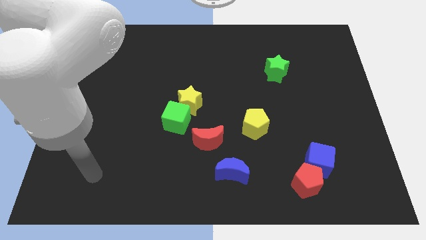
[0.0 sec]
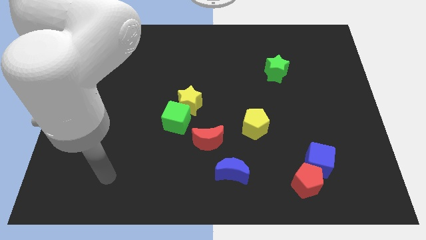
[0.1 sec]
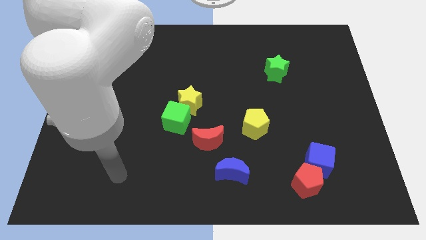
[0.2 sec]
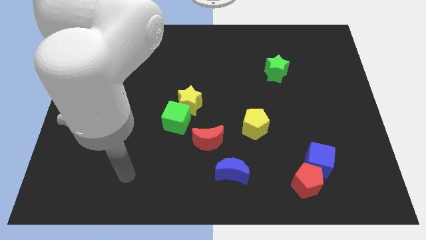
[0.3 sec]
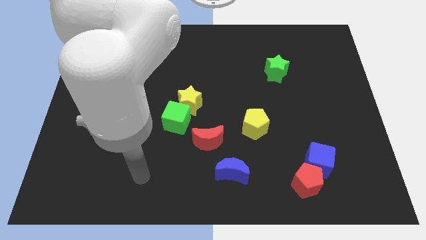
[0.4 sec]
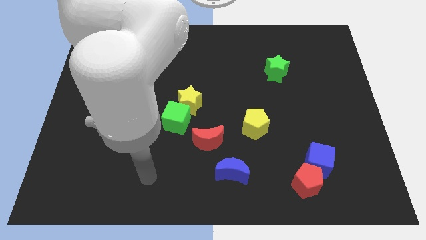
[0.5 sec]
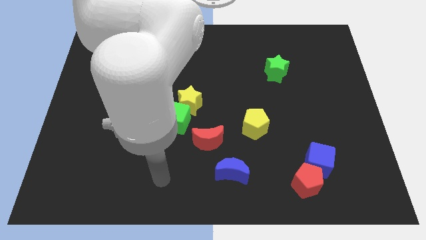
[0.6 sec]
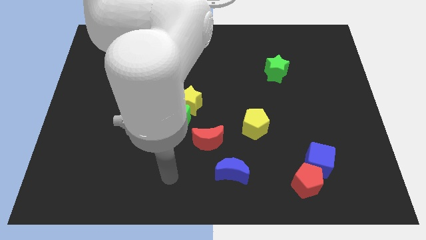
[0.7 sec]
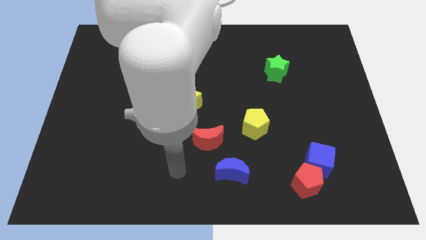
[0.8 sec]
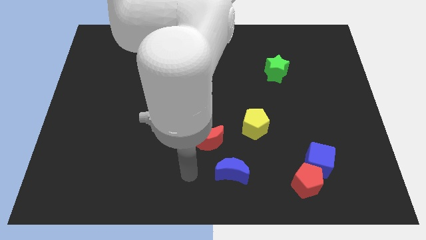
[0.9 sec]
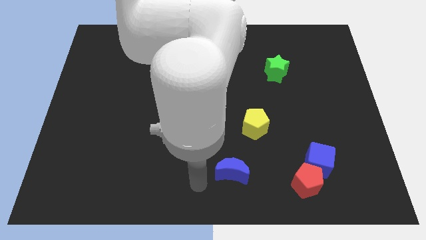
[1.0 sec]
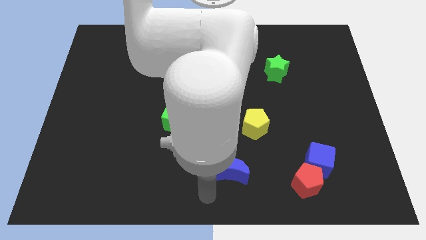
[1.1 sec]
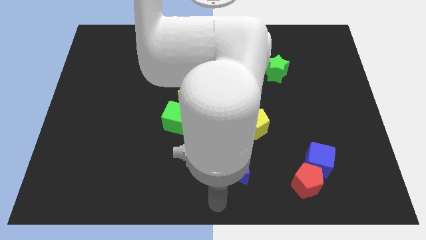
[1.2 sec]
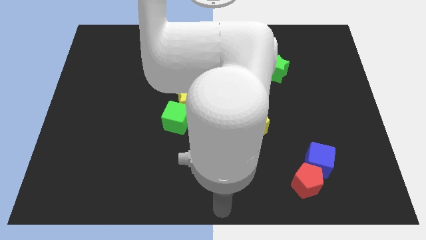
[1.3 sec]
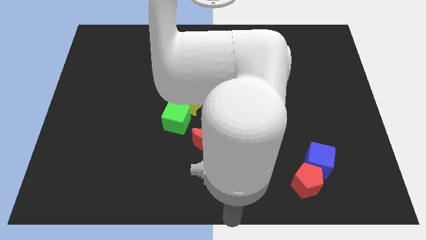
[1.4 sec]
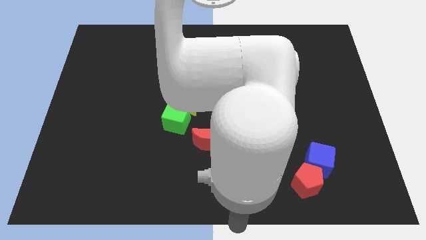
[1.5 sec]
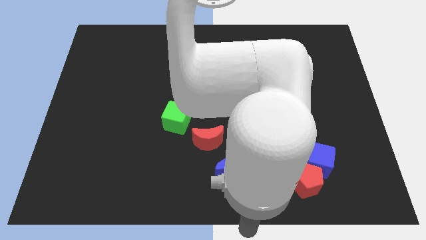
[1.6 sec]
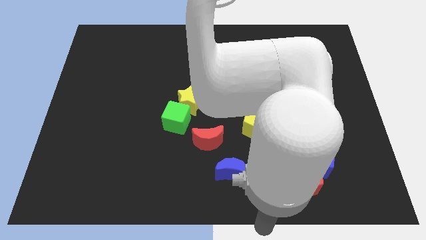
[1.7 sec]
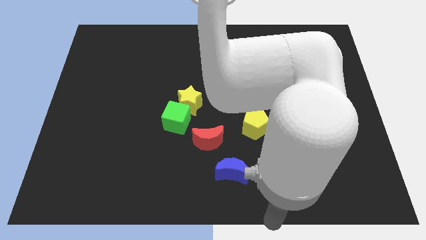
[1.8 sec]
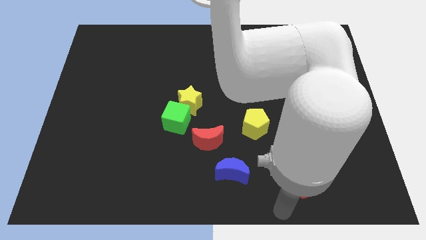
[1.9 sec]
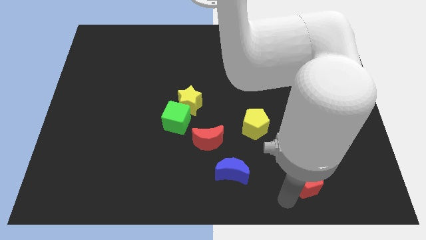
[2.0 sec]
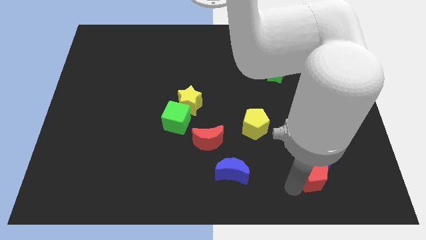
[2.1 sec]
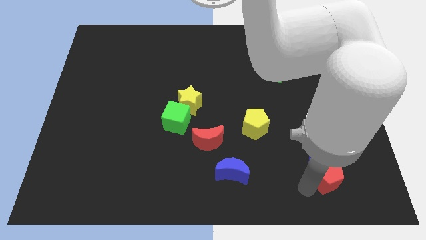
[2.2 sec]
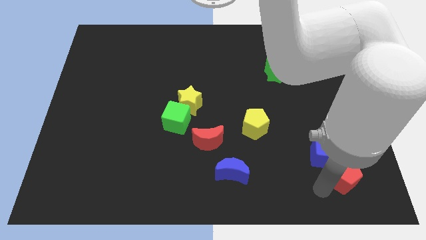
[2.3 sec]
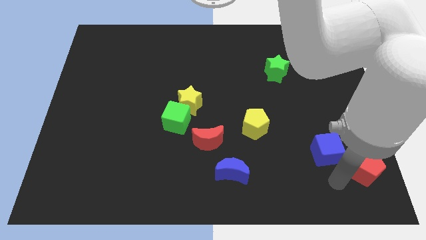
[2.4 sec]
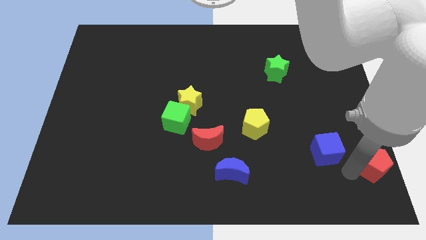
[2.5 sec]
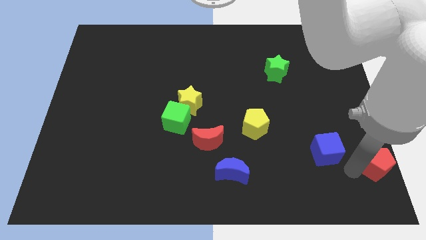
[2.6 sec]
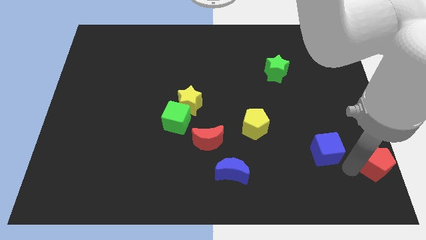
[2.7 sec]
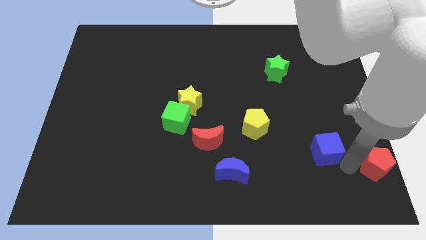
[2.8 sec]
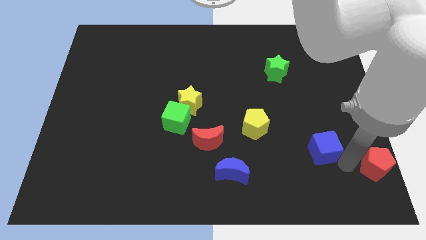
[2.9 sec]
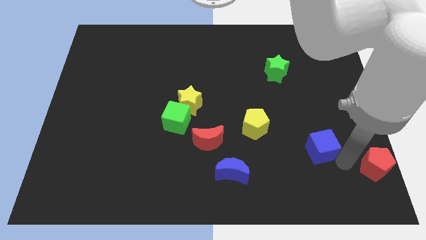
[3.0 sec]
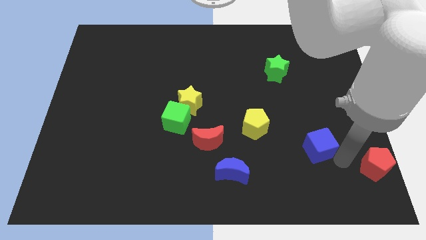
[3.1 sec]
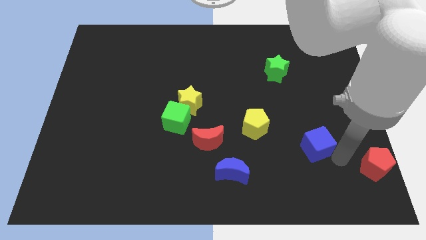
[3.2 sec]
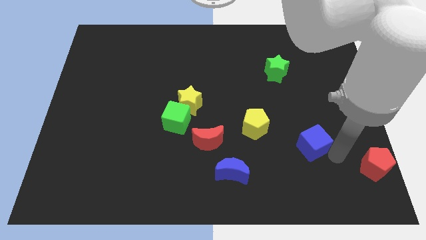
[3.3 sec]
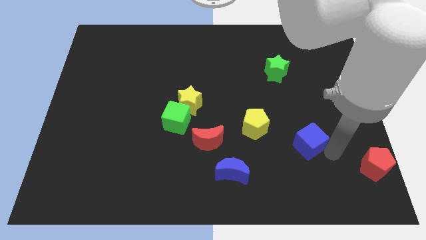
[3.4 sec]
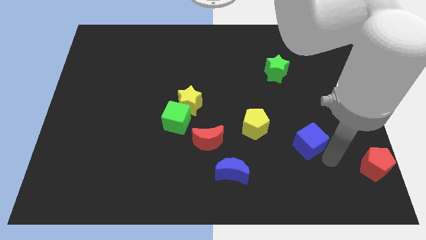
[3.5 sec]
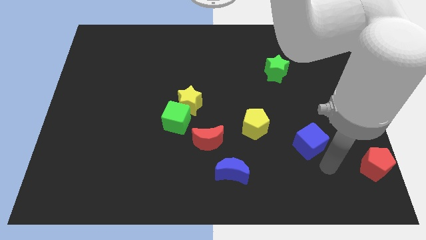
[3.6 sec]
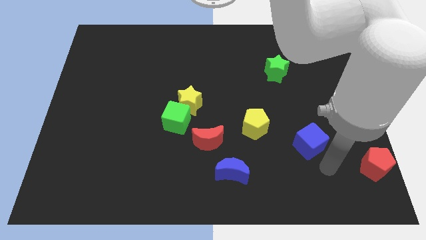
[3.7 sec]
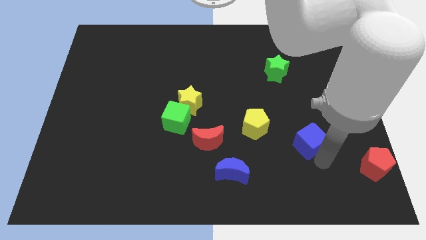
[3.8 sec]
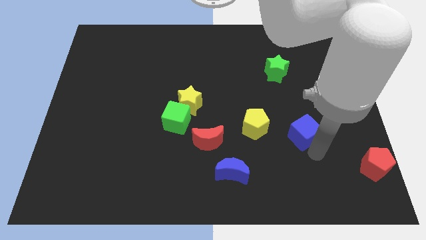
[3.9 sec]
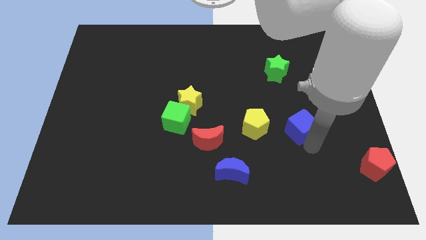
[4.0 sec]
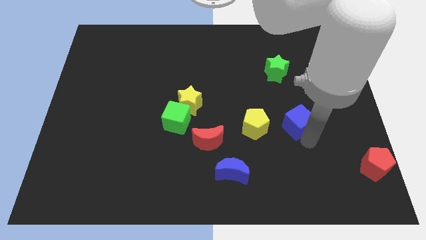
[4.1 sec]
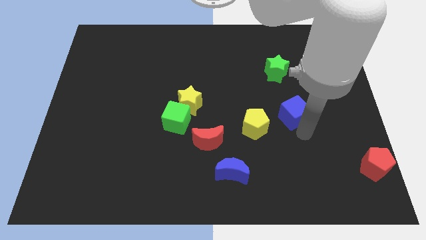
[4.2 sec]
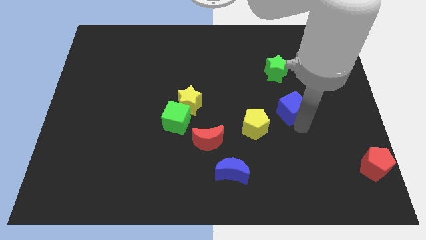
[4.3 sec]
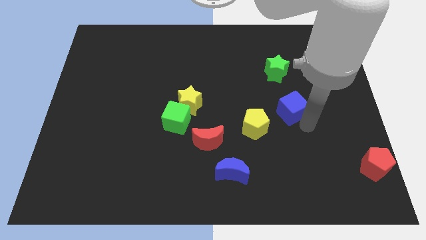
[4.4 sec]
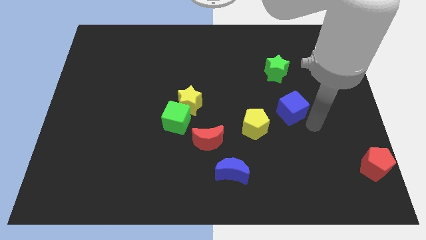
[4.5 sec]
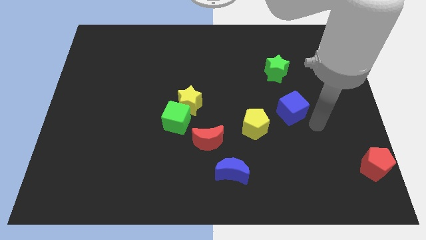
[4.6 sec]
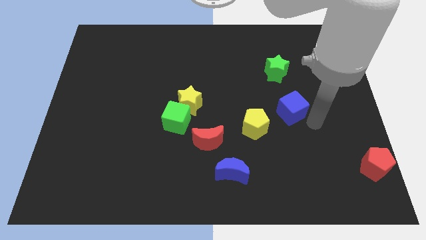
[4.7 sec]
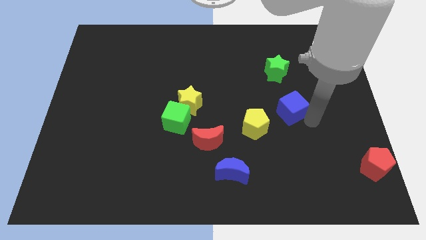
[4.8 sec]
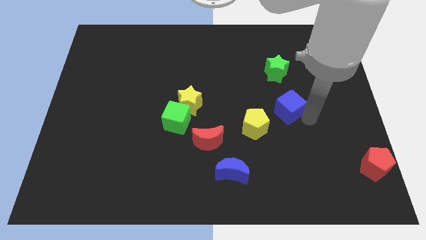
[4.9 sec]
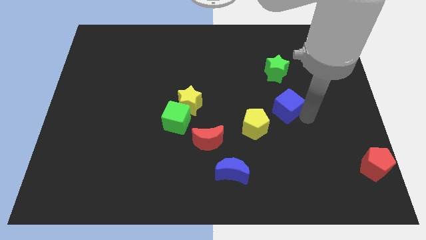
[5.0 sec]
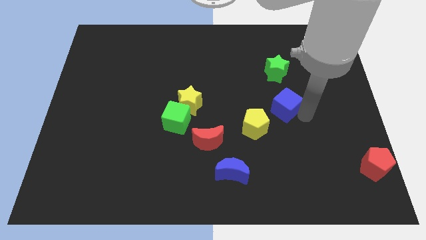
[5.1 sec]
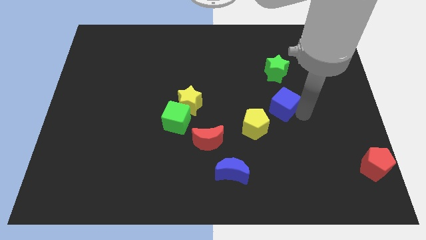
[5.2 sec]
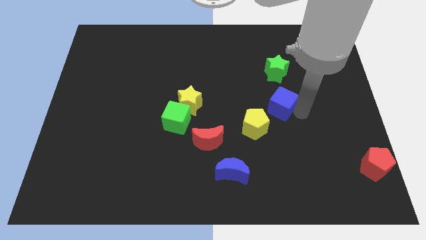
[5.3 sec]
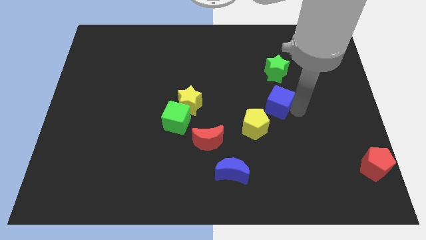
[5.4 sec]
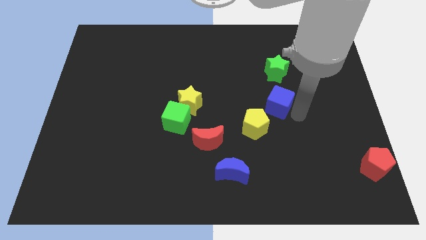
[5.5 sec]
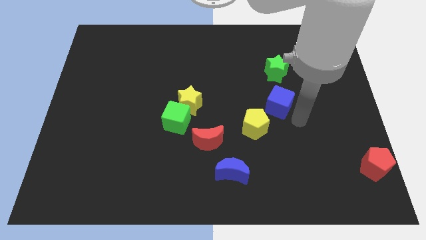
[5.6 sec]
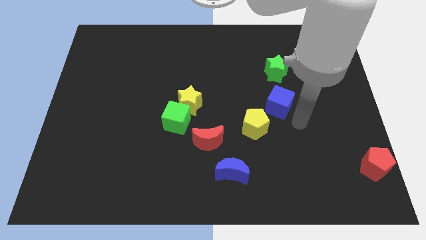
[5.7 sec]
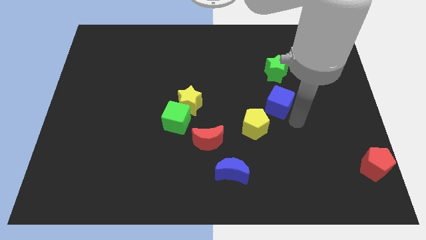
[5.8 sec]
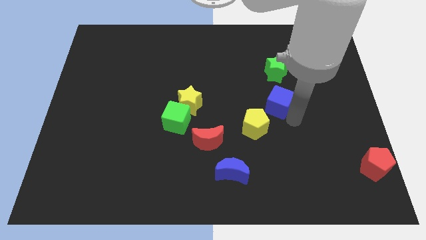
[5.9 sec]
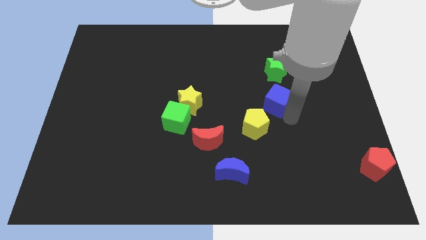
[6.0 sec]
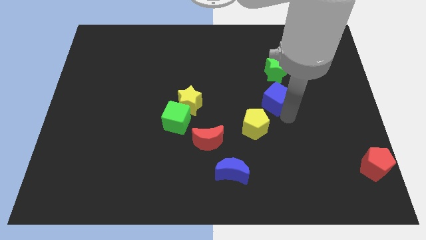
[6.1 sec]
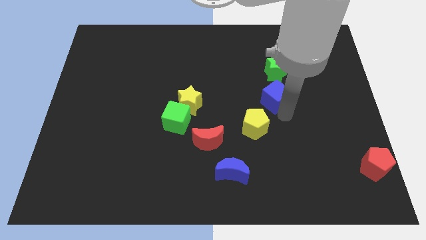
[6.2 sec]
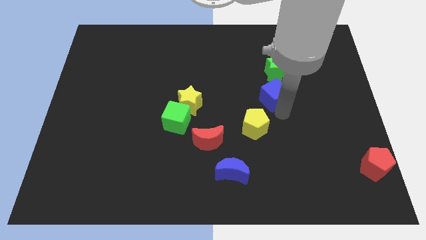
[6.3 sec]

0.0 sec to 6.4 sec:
slide the blue cube to the bottom left side of the green star

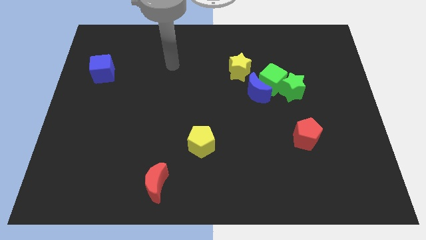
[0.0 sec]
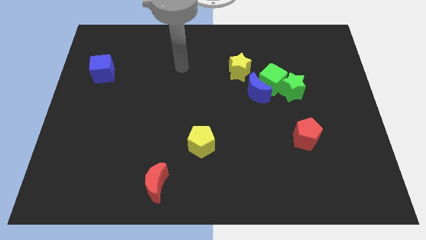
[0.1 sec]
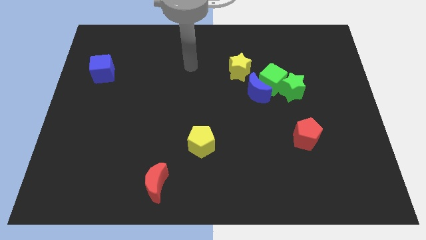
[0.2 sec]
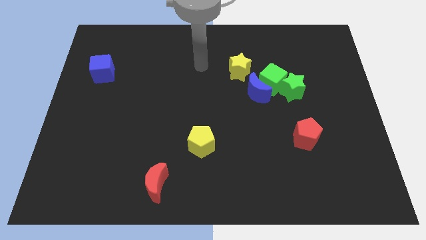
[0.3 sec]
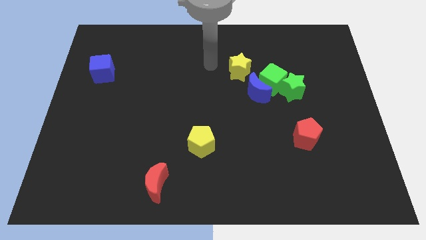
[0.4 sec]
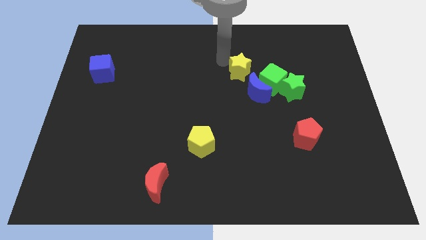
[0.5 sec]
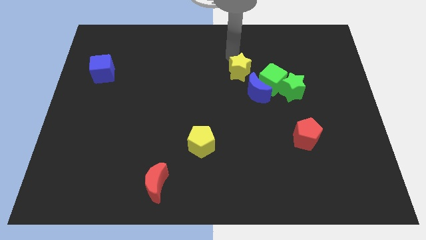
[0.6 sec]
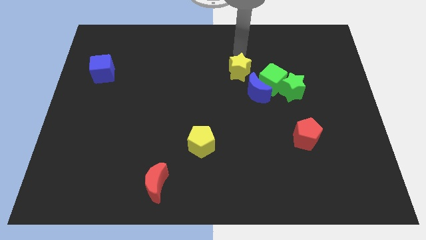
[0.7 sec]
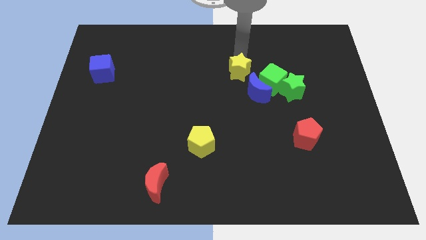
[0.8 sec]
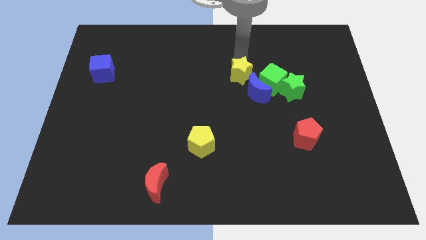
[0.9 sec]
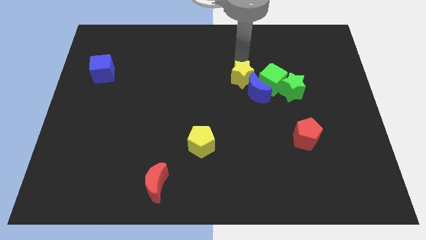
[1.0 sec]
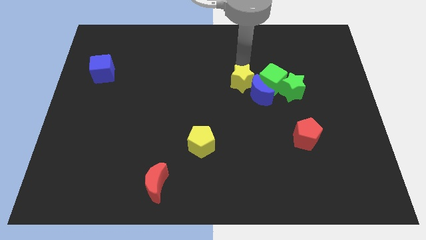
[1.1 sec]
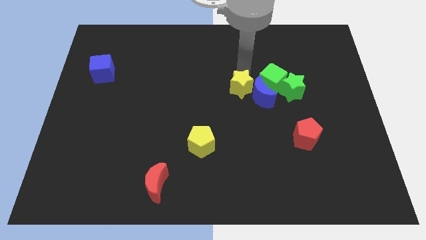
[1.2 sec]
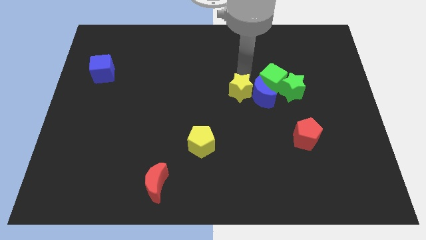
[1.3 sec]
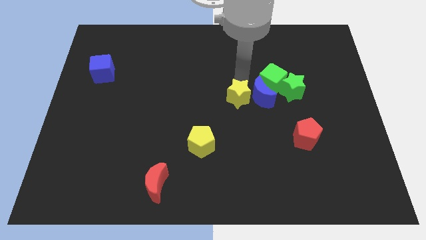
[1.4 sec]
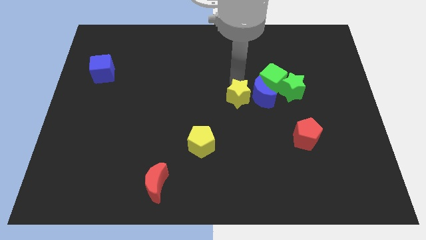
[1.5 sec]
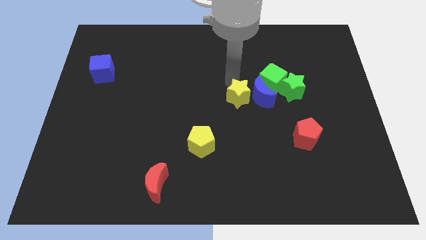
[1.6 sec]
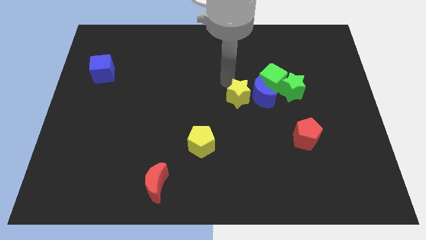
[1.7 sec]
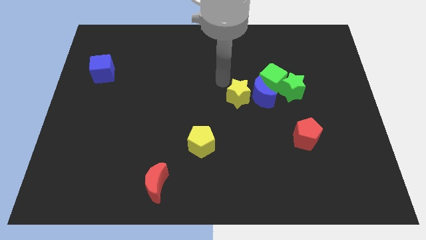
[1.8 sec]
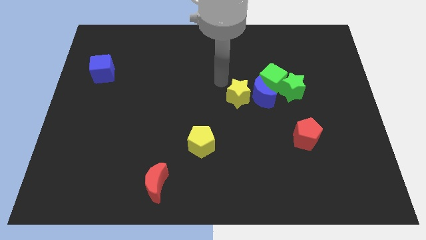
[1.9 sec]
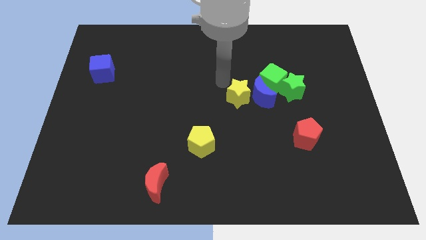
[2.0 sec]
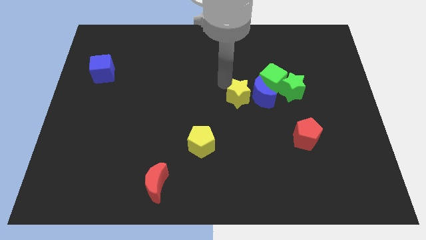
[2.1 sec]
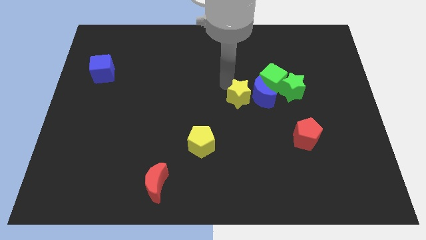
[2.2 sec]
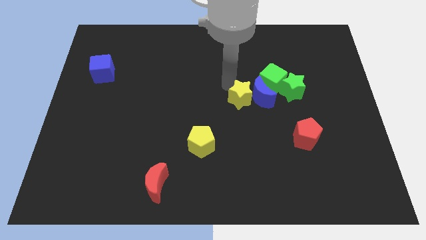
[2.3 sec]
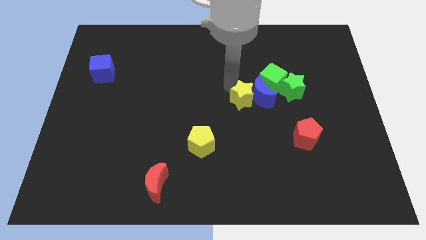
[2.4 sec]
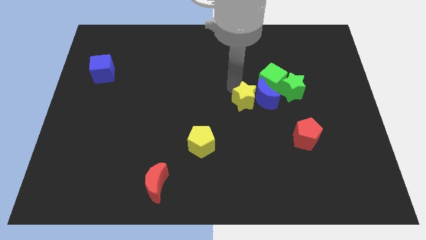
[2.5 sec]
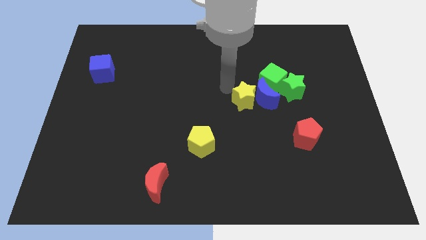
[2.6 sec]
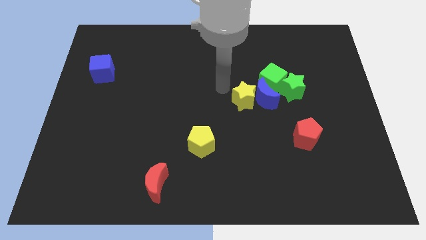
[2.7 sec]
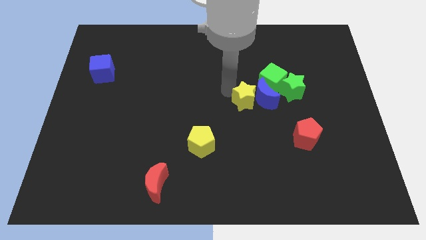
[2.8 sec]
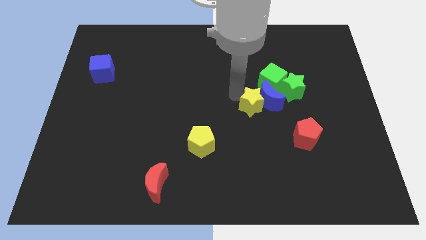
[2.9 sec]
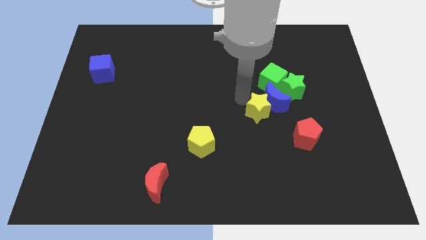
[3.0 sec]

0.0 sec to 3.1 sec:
slide the yellow star to the bottom of the green cube
